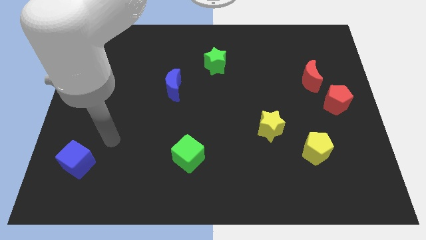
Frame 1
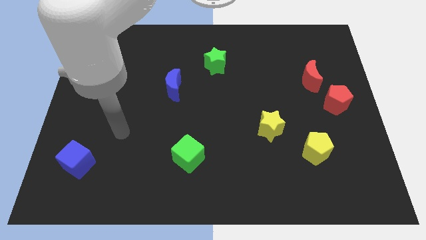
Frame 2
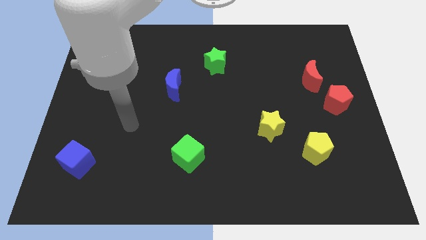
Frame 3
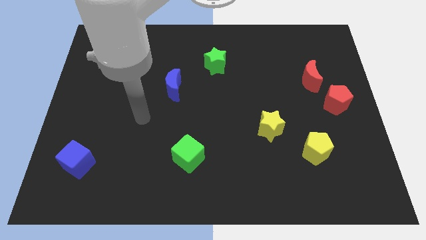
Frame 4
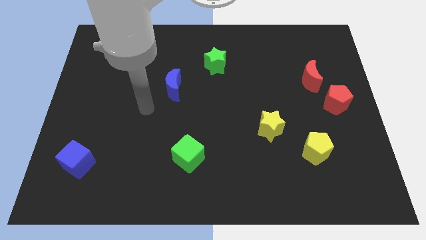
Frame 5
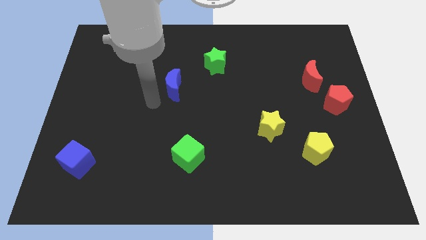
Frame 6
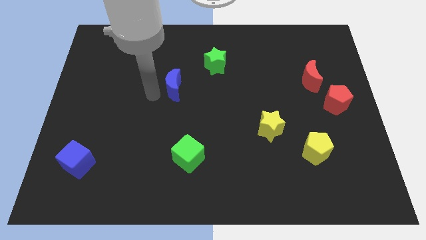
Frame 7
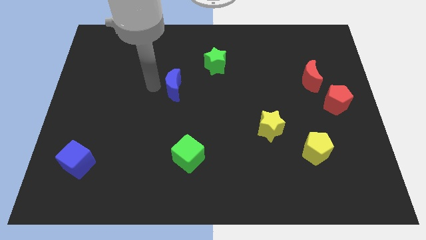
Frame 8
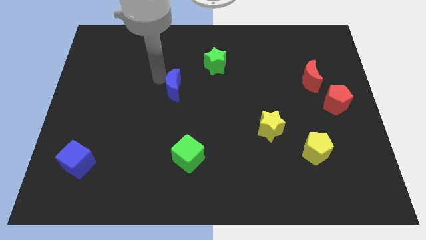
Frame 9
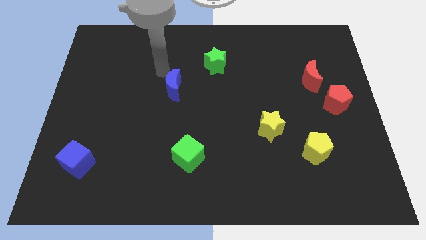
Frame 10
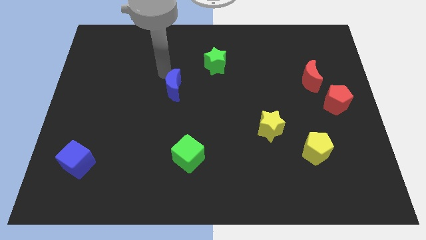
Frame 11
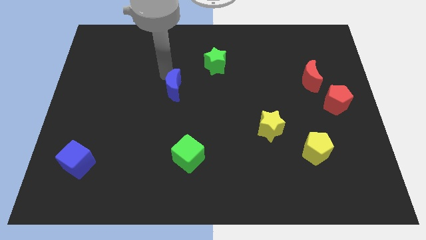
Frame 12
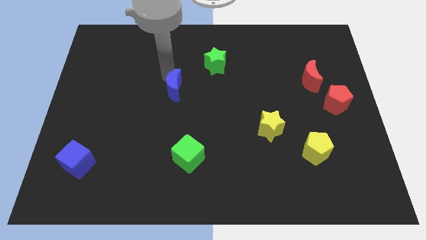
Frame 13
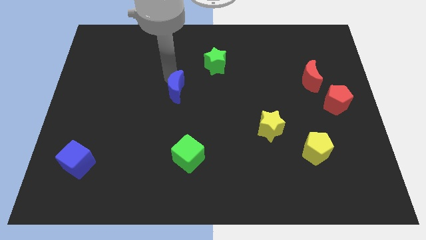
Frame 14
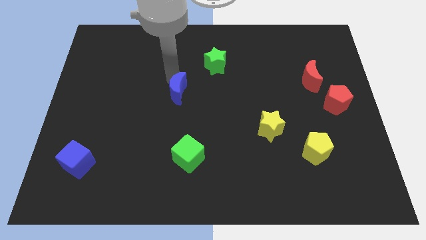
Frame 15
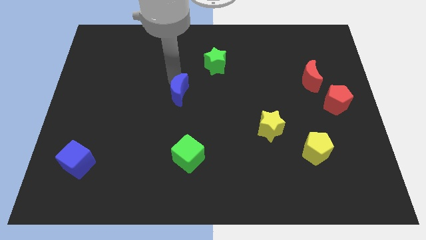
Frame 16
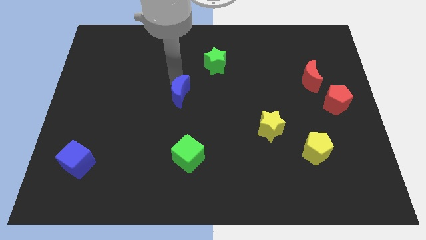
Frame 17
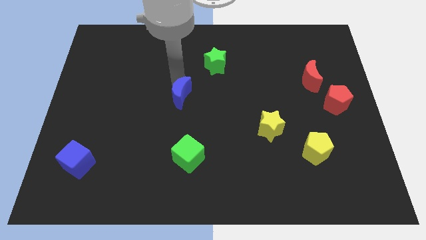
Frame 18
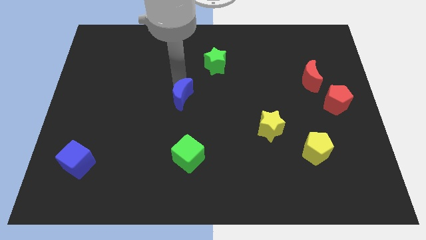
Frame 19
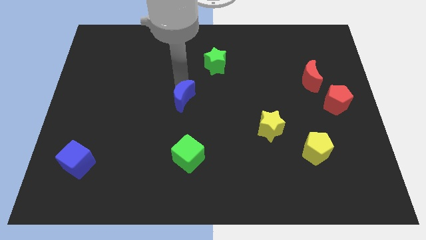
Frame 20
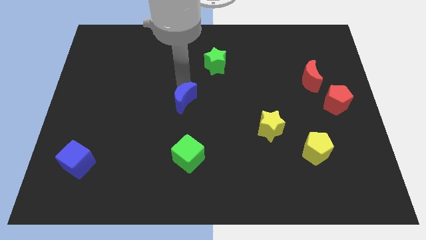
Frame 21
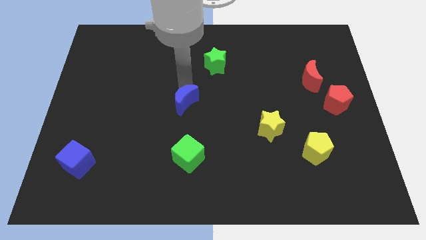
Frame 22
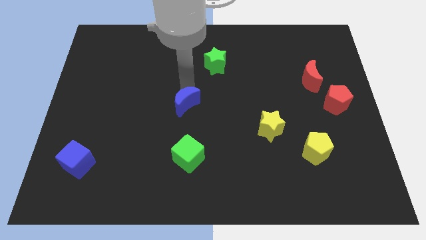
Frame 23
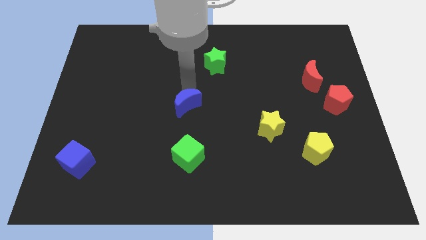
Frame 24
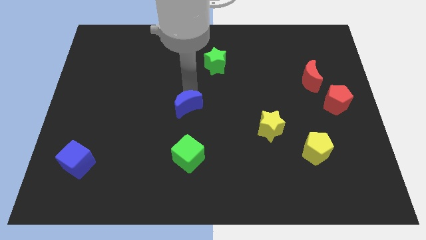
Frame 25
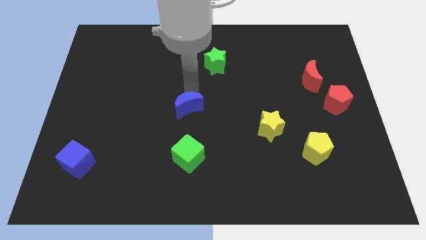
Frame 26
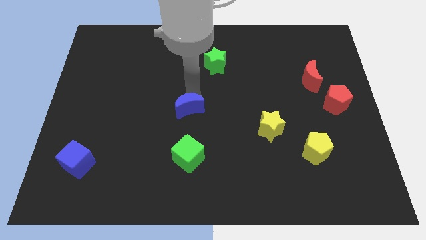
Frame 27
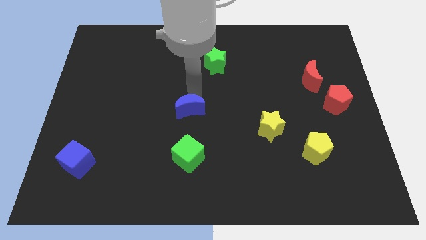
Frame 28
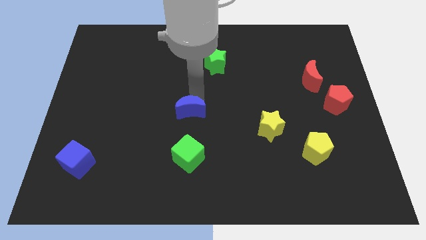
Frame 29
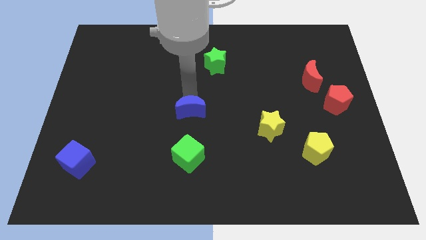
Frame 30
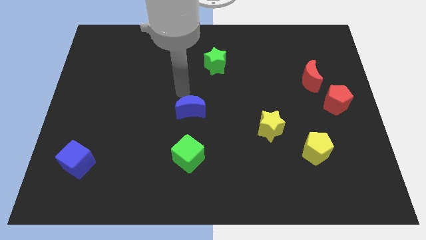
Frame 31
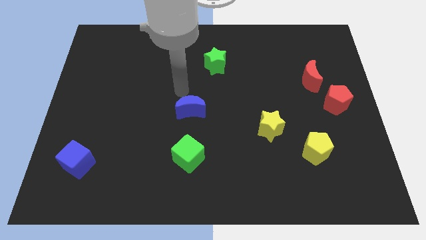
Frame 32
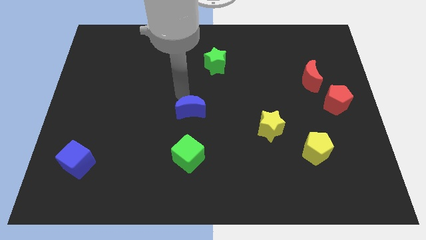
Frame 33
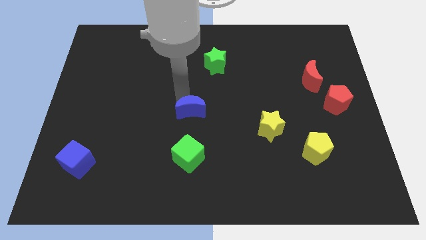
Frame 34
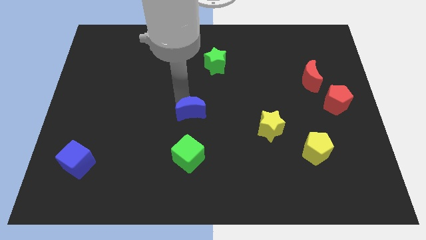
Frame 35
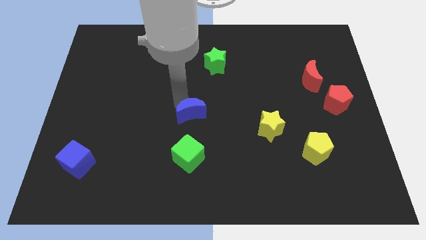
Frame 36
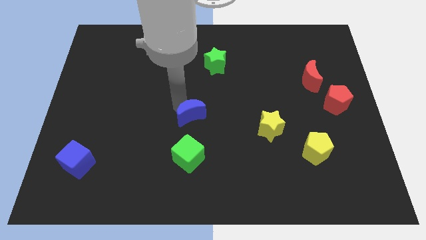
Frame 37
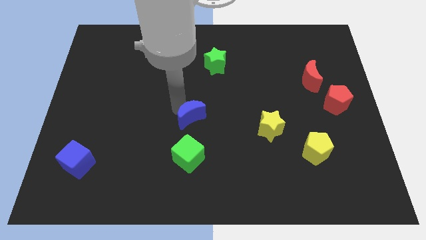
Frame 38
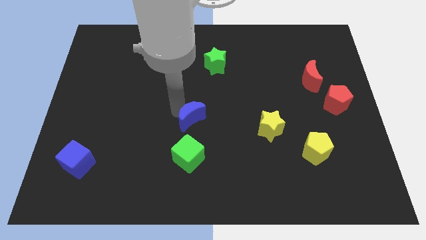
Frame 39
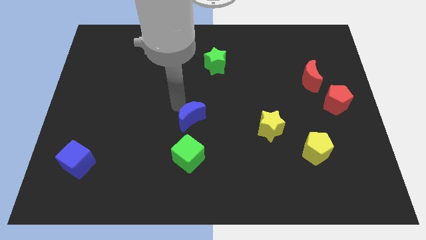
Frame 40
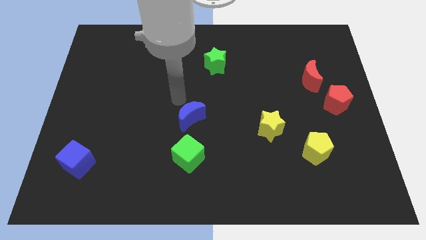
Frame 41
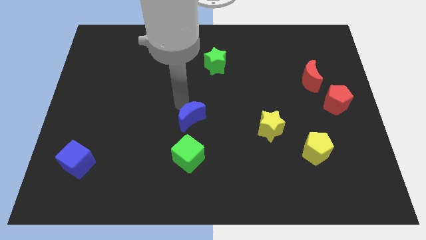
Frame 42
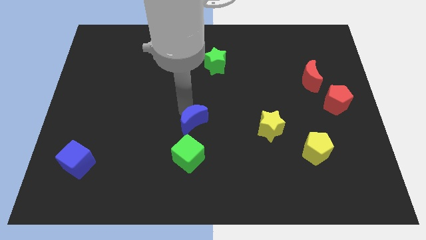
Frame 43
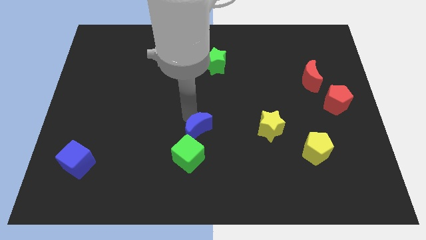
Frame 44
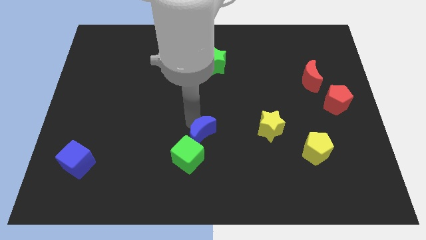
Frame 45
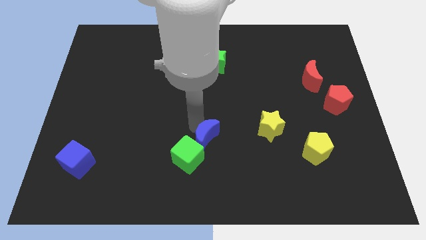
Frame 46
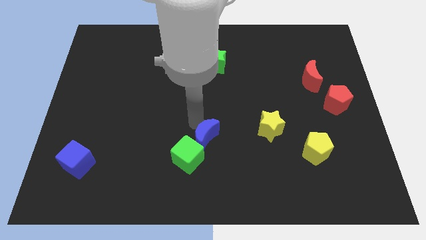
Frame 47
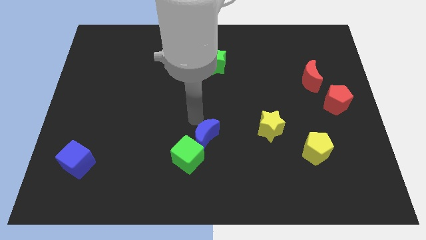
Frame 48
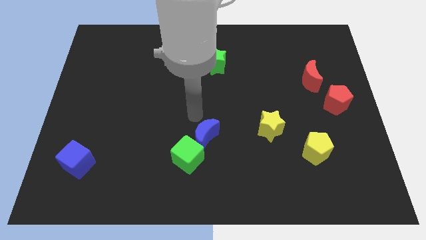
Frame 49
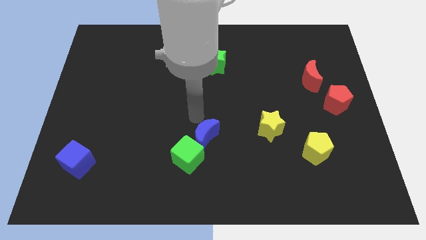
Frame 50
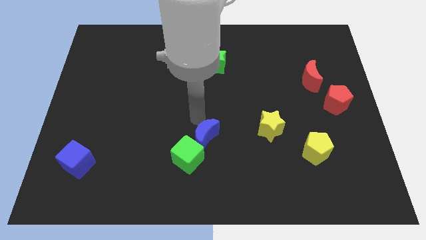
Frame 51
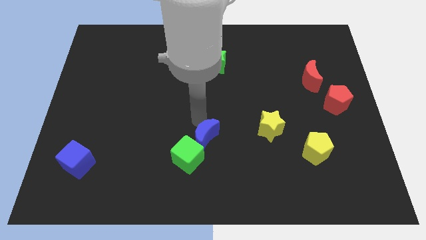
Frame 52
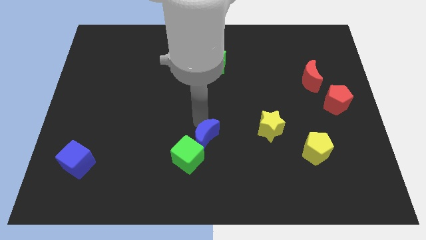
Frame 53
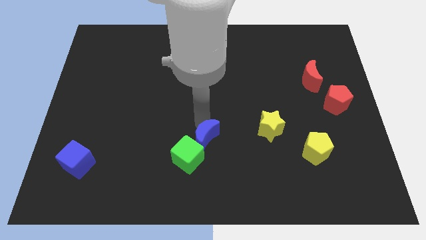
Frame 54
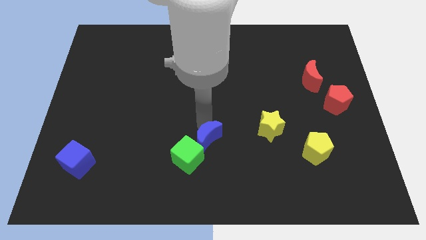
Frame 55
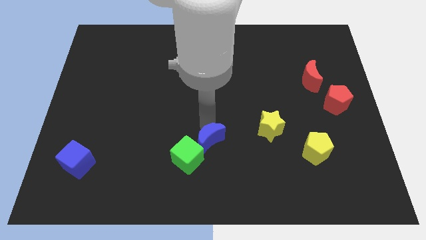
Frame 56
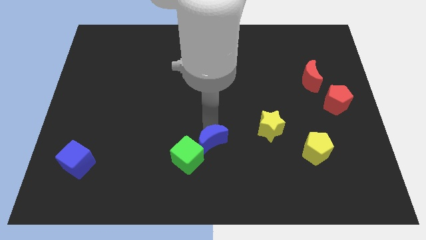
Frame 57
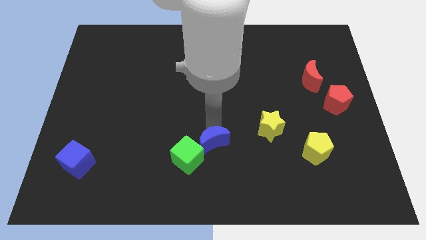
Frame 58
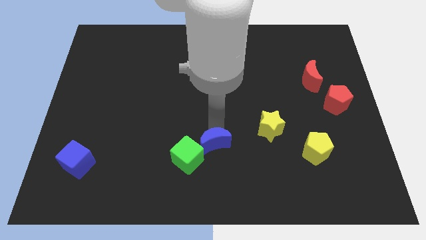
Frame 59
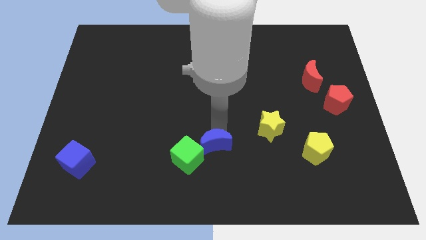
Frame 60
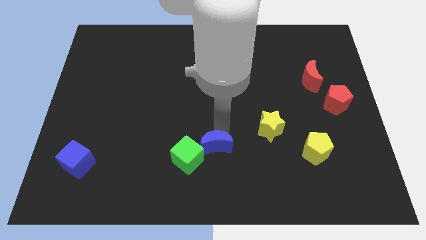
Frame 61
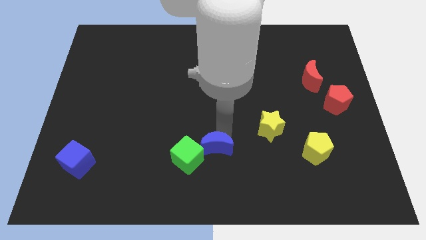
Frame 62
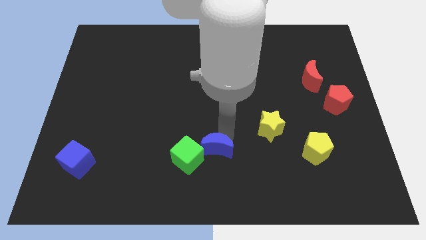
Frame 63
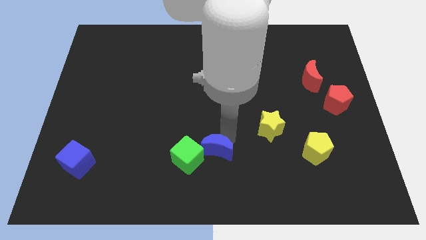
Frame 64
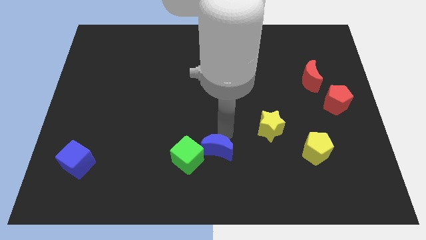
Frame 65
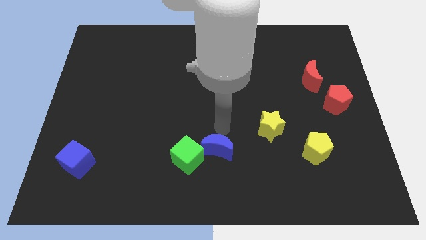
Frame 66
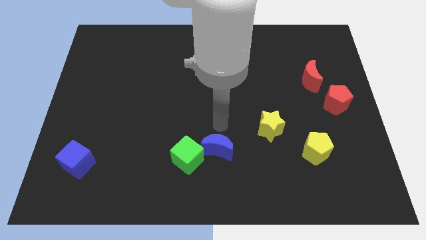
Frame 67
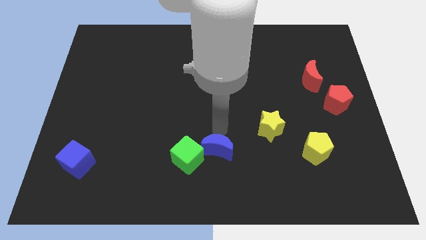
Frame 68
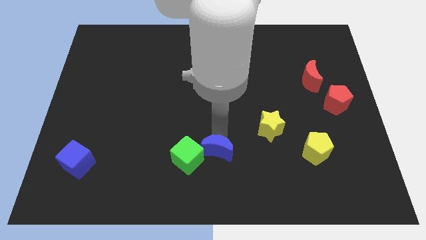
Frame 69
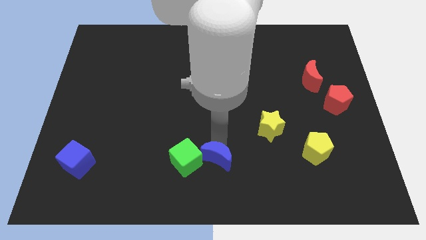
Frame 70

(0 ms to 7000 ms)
slide the blue moon to the bottom side
